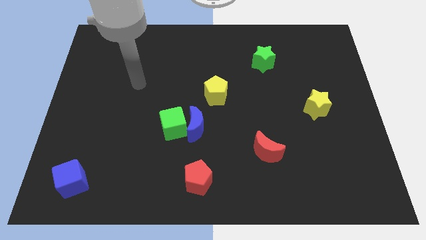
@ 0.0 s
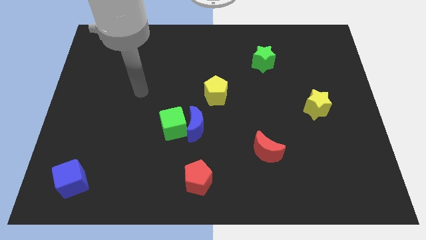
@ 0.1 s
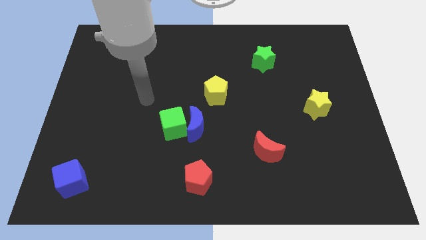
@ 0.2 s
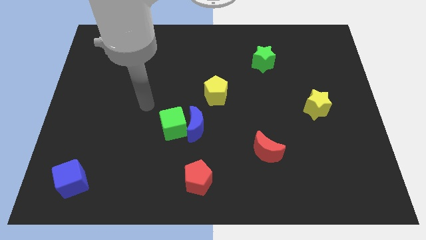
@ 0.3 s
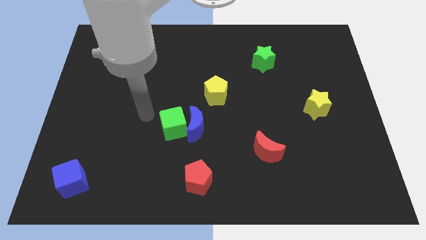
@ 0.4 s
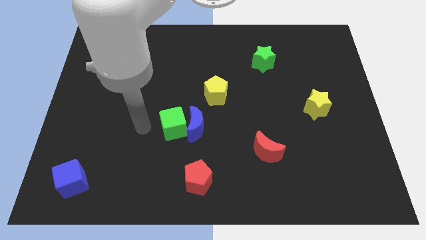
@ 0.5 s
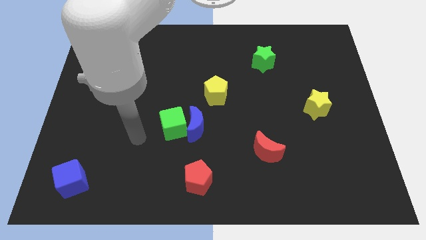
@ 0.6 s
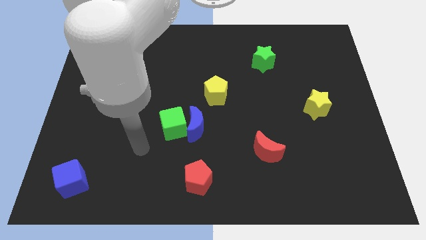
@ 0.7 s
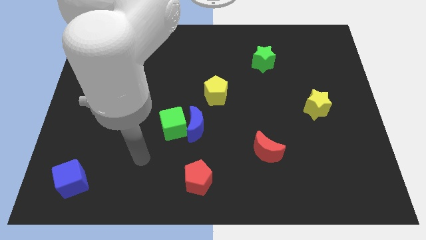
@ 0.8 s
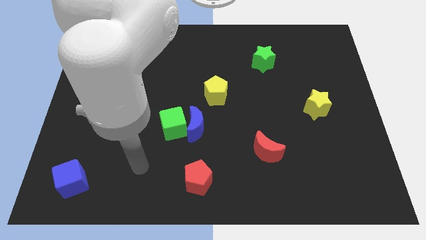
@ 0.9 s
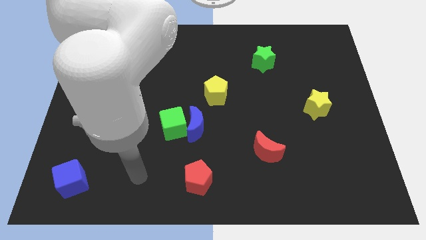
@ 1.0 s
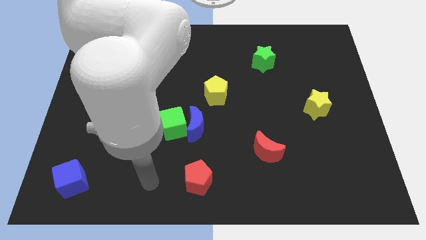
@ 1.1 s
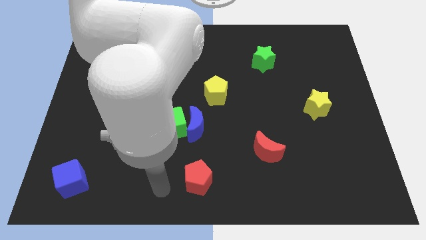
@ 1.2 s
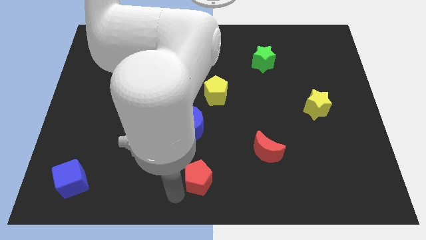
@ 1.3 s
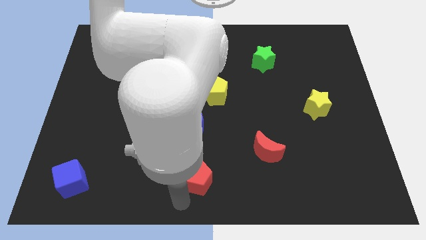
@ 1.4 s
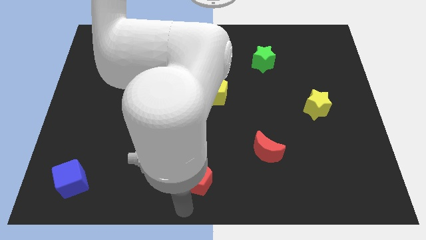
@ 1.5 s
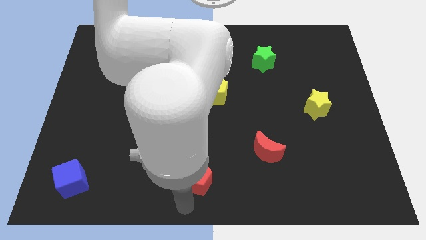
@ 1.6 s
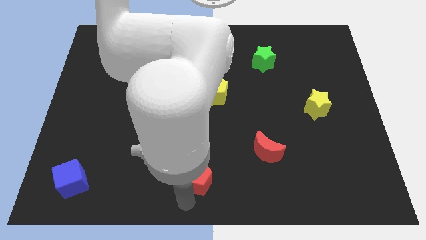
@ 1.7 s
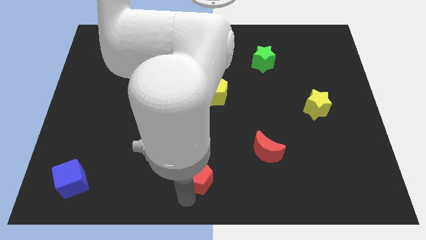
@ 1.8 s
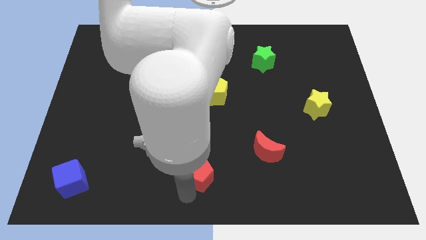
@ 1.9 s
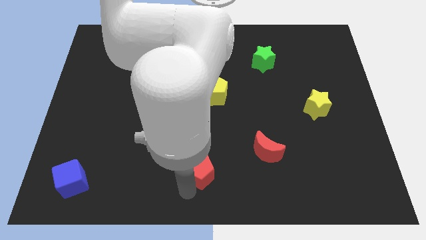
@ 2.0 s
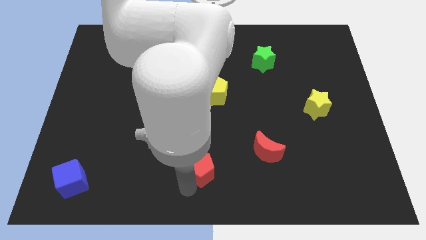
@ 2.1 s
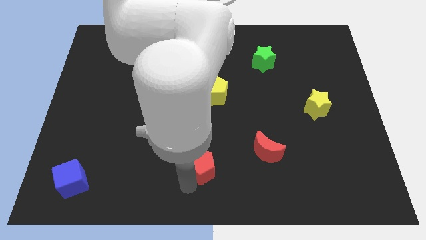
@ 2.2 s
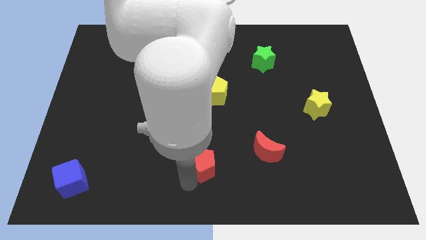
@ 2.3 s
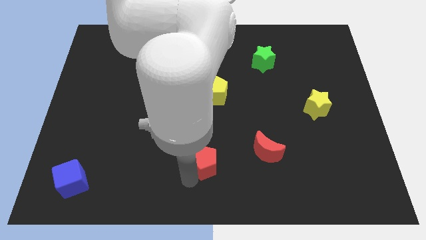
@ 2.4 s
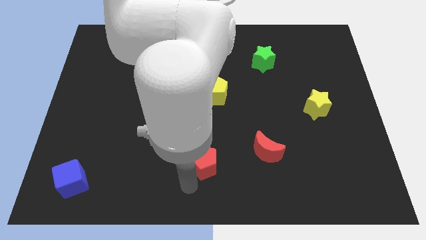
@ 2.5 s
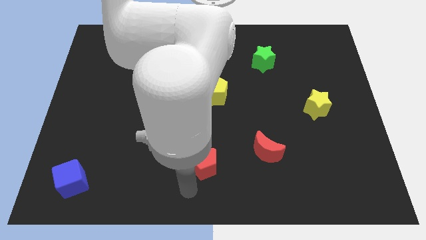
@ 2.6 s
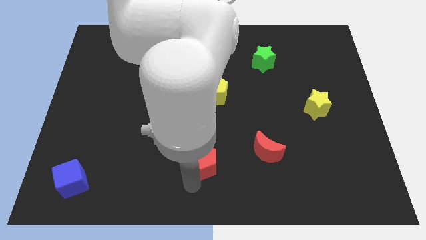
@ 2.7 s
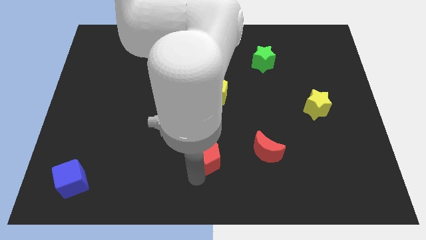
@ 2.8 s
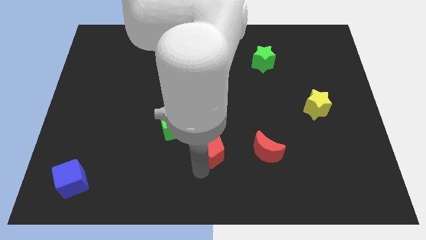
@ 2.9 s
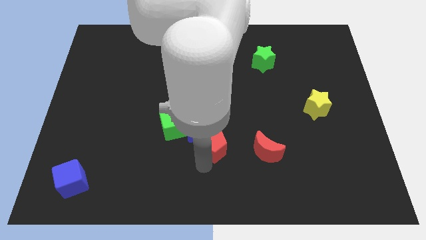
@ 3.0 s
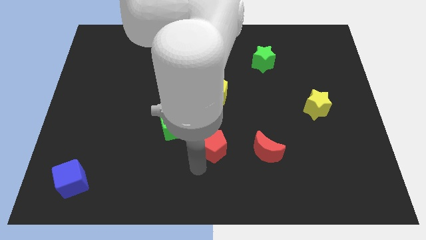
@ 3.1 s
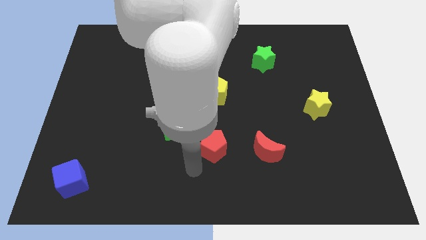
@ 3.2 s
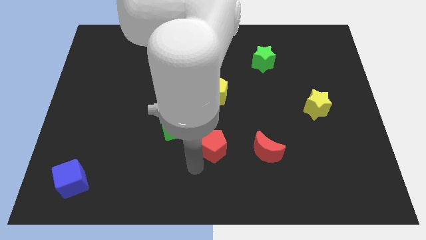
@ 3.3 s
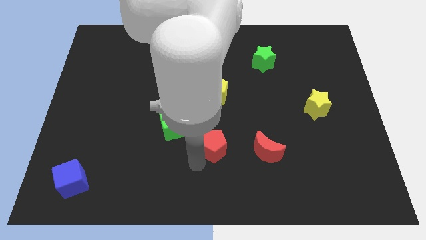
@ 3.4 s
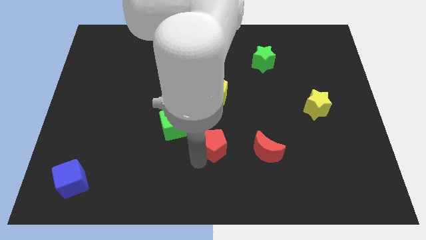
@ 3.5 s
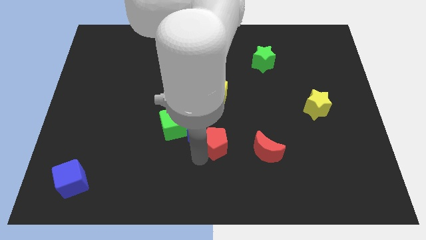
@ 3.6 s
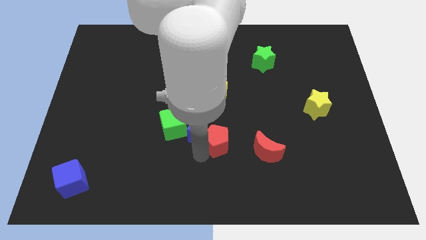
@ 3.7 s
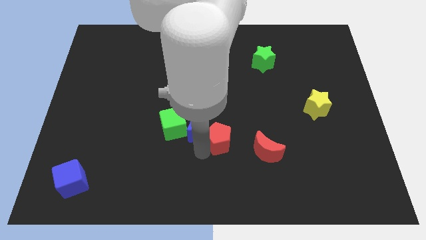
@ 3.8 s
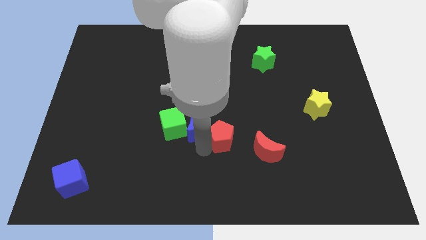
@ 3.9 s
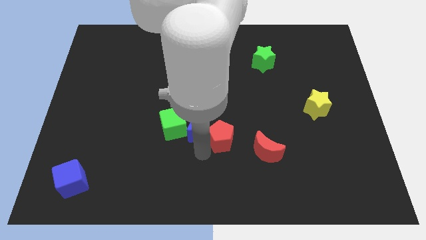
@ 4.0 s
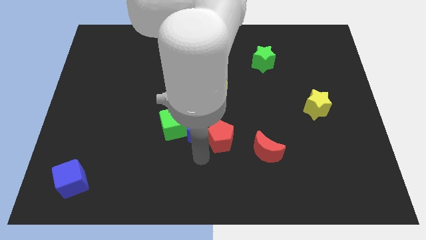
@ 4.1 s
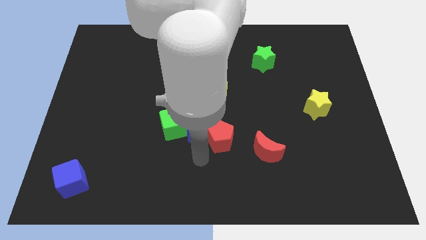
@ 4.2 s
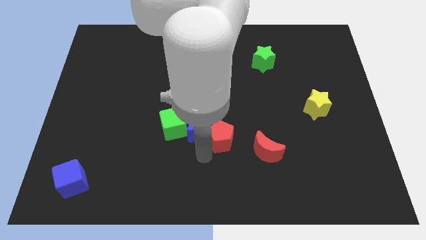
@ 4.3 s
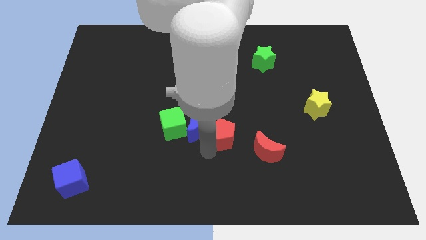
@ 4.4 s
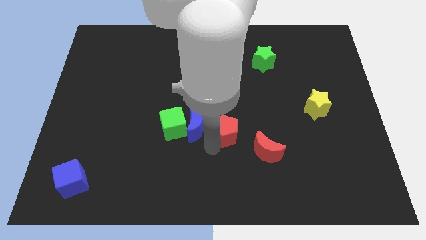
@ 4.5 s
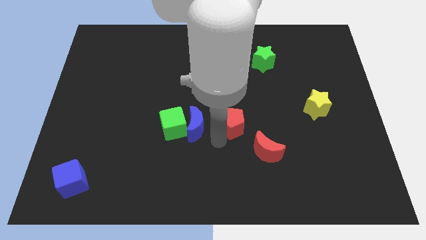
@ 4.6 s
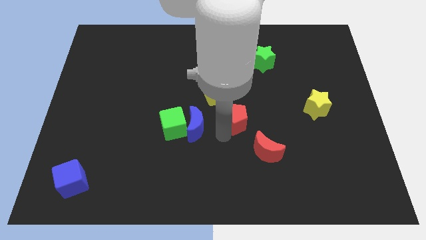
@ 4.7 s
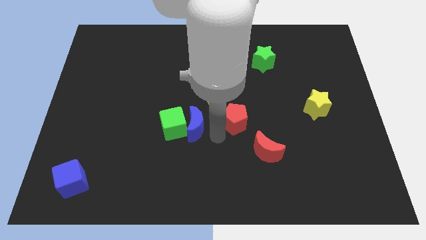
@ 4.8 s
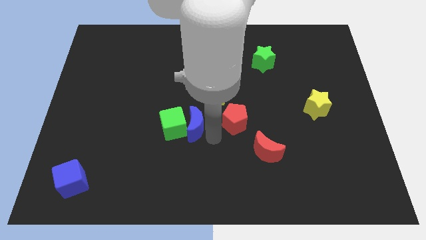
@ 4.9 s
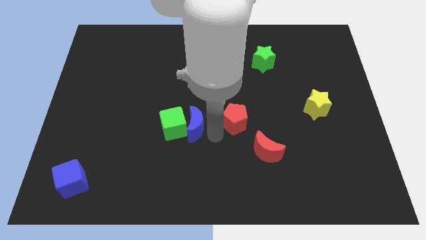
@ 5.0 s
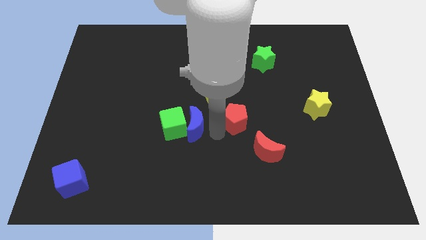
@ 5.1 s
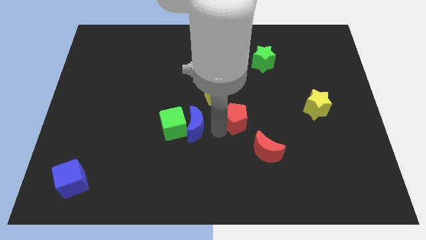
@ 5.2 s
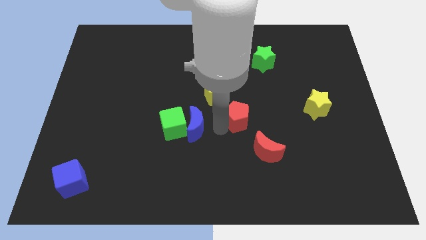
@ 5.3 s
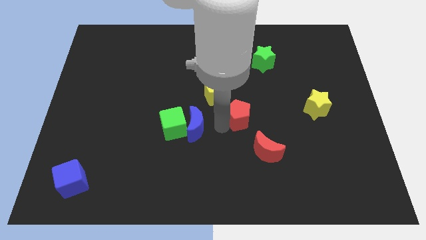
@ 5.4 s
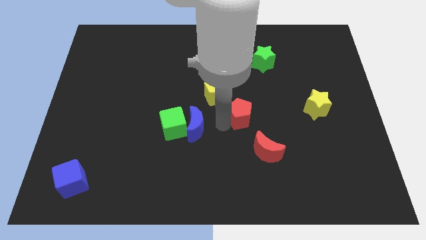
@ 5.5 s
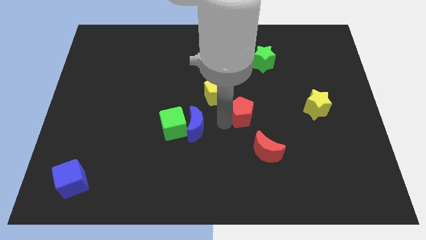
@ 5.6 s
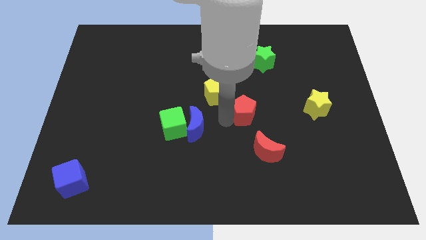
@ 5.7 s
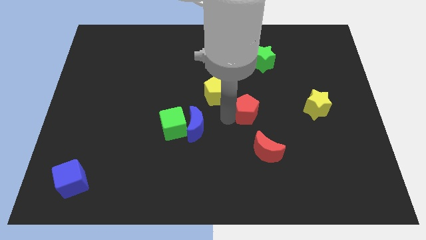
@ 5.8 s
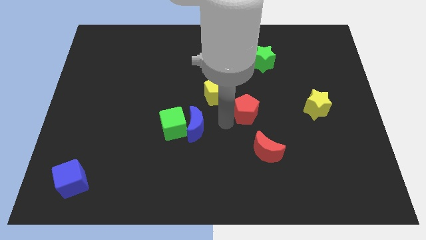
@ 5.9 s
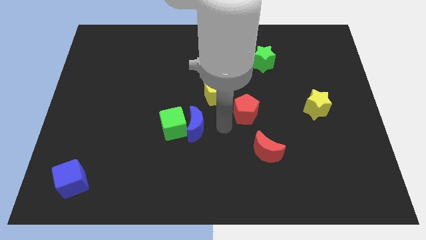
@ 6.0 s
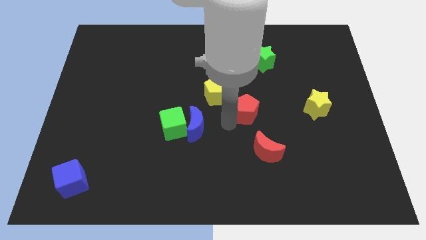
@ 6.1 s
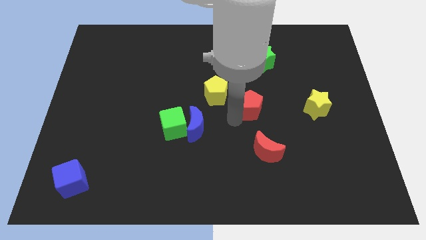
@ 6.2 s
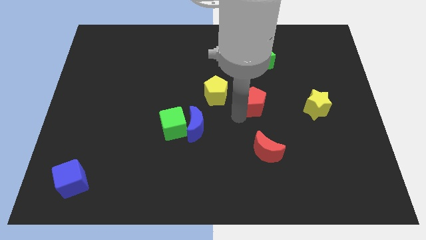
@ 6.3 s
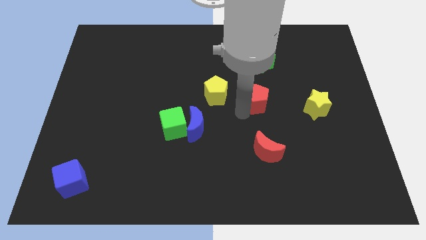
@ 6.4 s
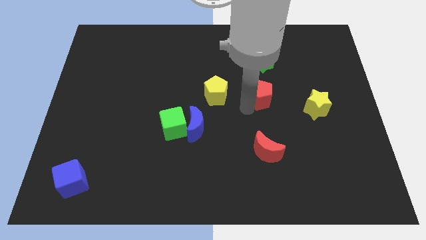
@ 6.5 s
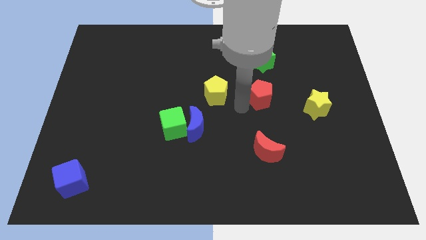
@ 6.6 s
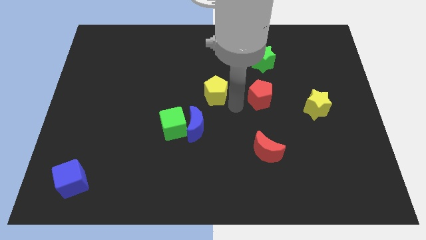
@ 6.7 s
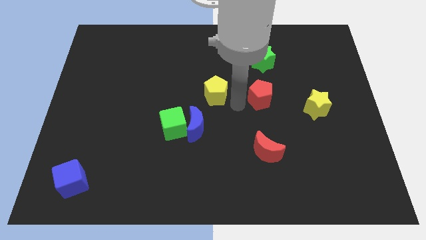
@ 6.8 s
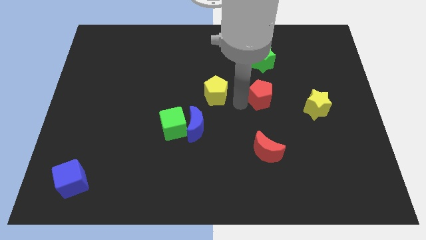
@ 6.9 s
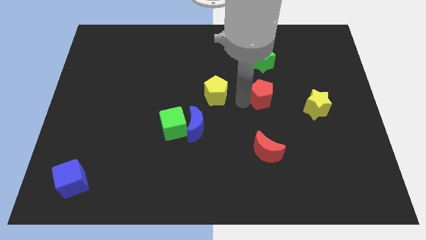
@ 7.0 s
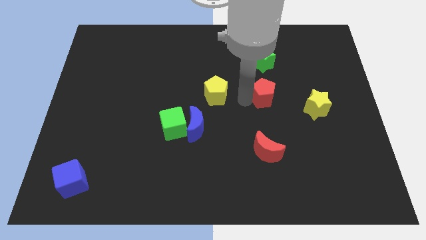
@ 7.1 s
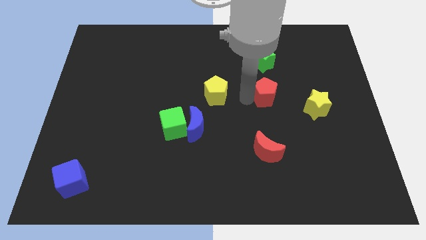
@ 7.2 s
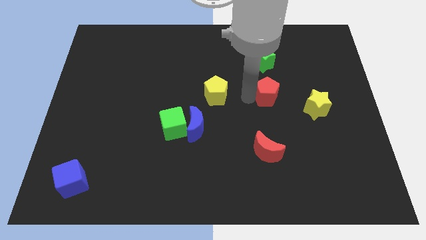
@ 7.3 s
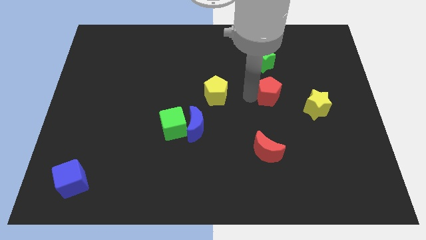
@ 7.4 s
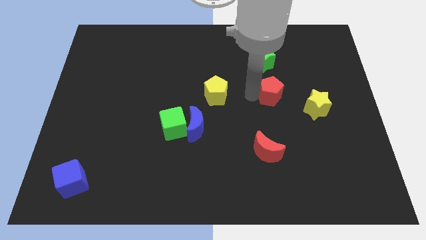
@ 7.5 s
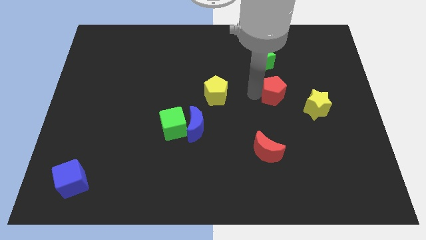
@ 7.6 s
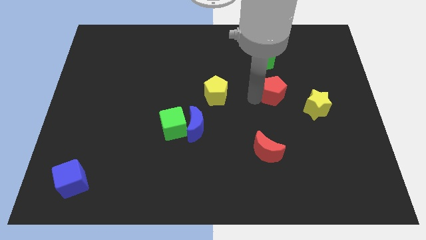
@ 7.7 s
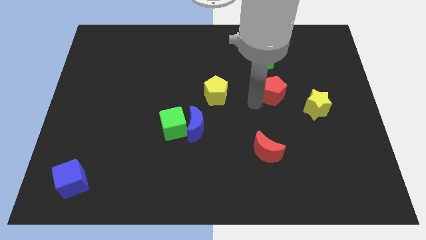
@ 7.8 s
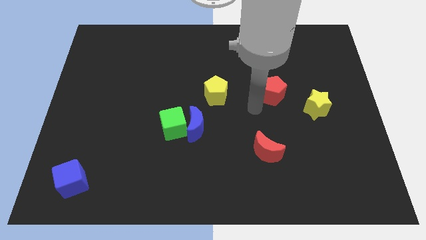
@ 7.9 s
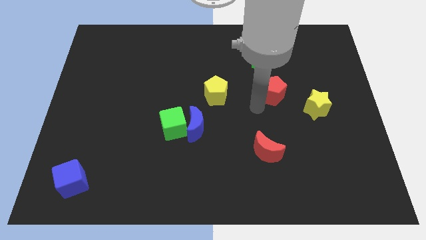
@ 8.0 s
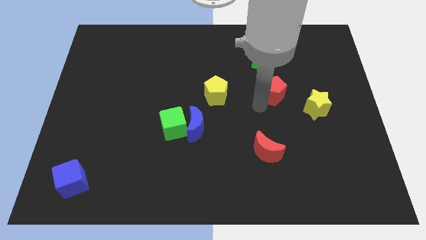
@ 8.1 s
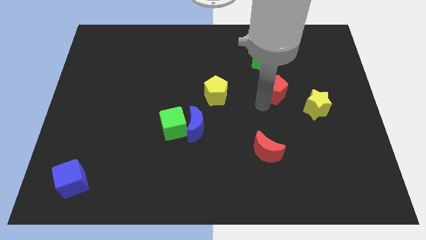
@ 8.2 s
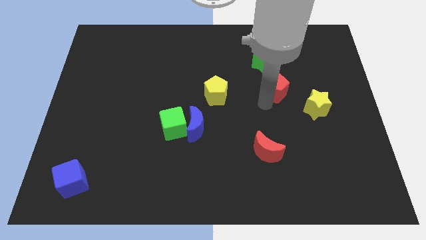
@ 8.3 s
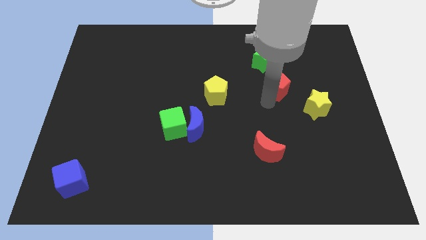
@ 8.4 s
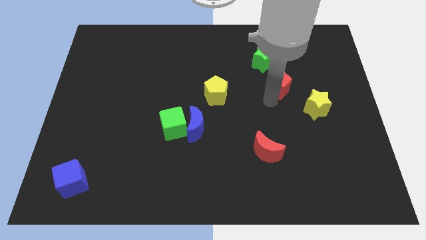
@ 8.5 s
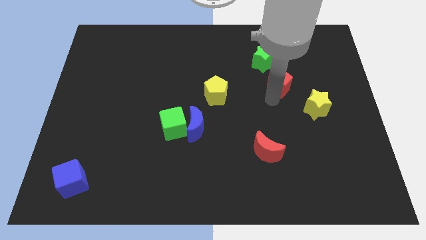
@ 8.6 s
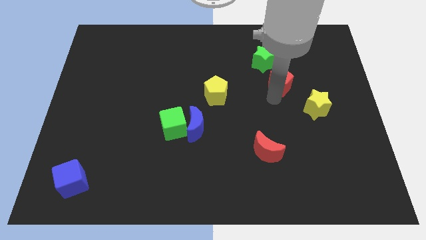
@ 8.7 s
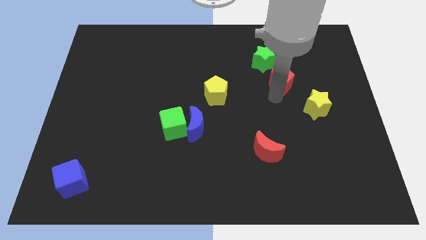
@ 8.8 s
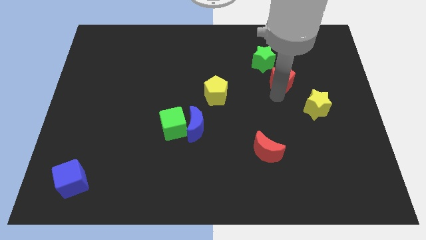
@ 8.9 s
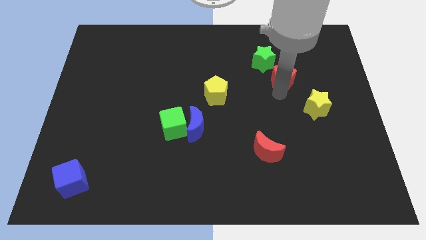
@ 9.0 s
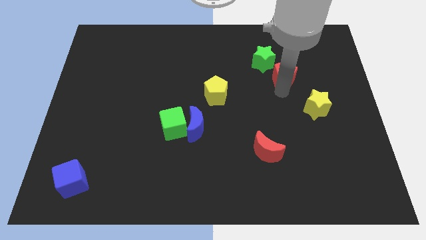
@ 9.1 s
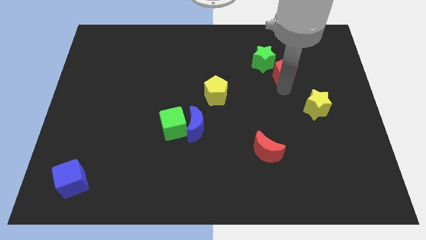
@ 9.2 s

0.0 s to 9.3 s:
push the red pentagon to the right side of the green star
